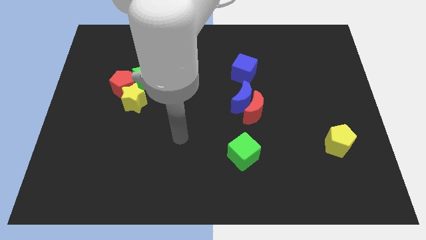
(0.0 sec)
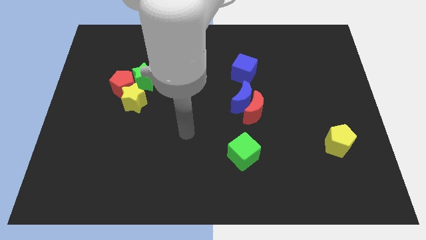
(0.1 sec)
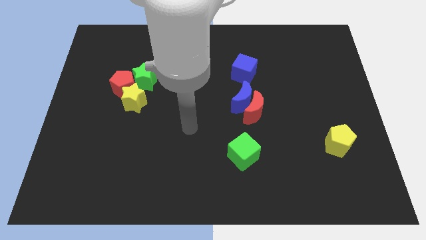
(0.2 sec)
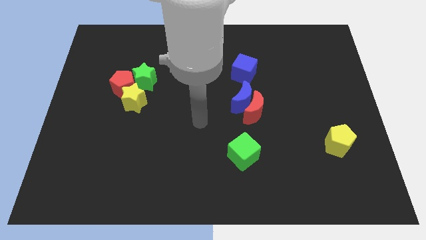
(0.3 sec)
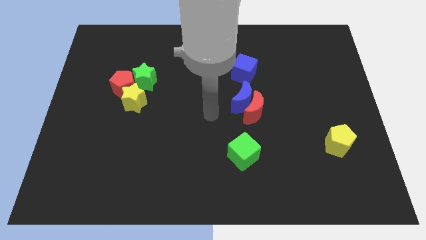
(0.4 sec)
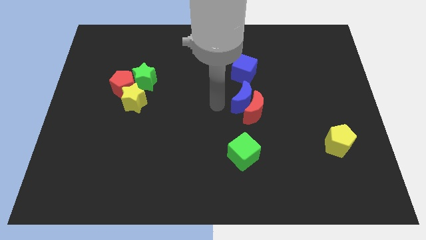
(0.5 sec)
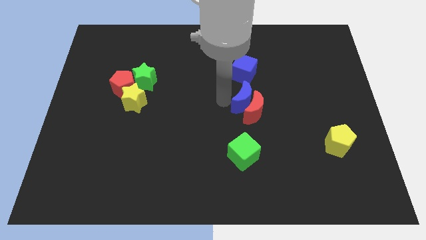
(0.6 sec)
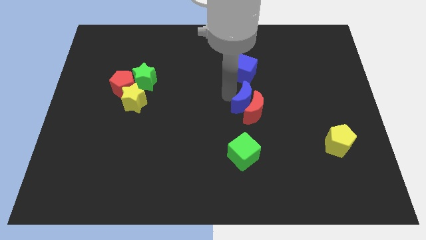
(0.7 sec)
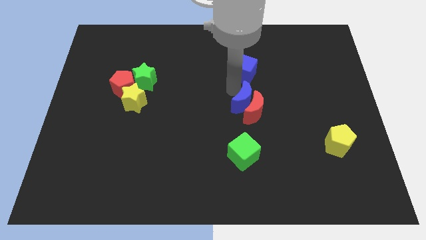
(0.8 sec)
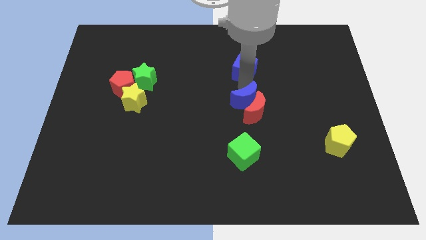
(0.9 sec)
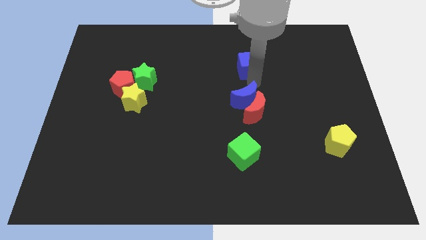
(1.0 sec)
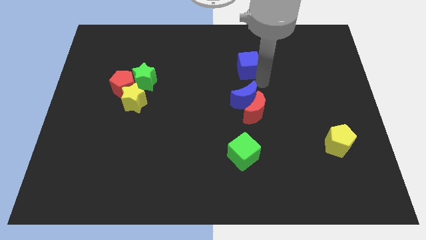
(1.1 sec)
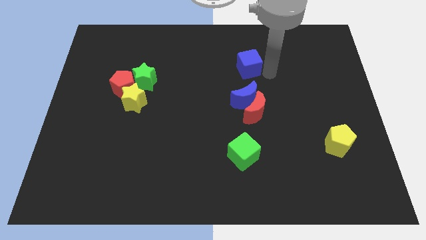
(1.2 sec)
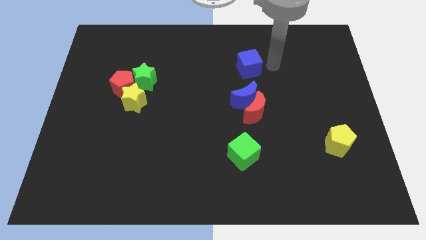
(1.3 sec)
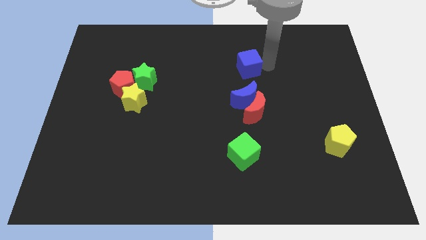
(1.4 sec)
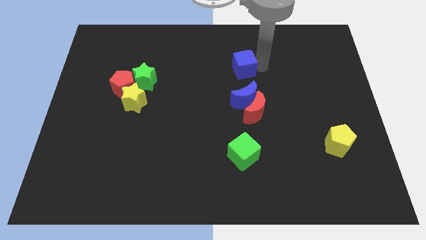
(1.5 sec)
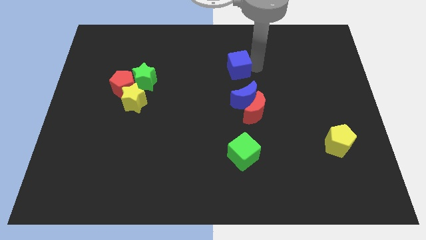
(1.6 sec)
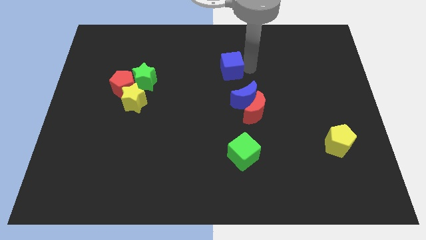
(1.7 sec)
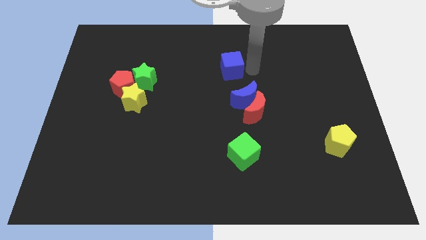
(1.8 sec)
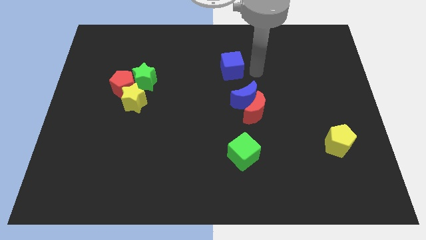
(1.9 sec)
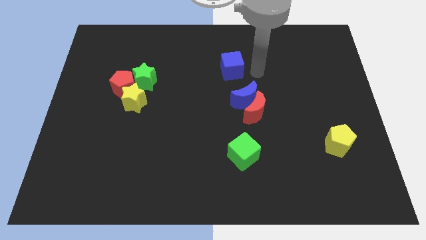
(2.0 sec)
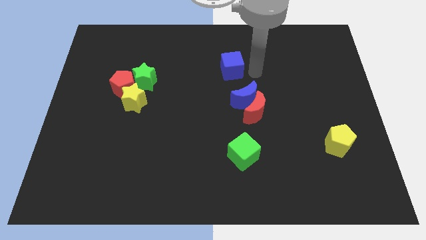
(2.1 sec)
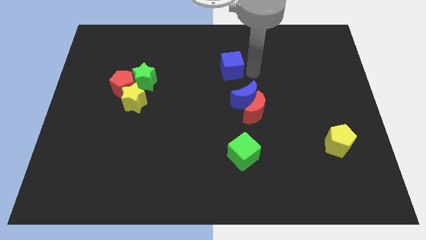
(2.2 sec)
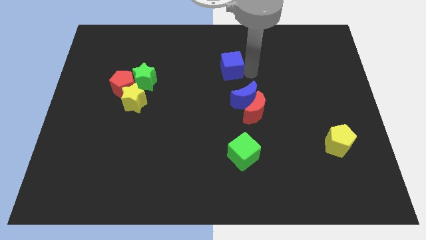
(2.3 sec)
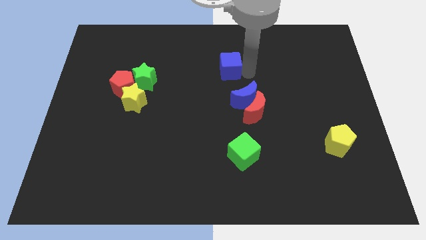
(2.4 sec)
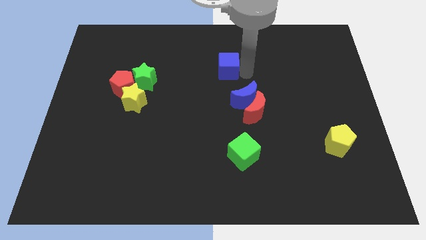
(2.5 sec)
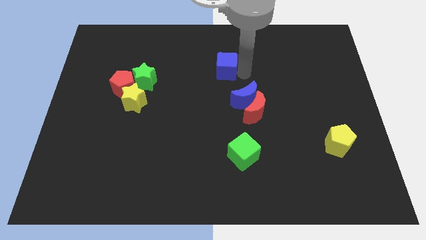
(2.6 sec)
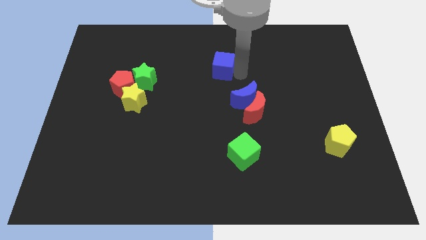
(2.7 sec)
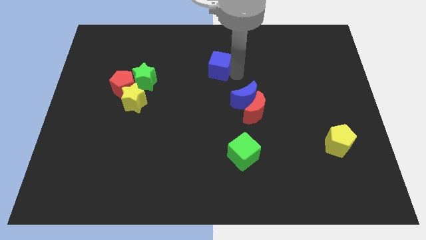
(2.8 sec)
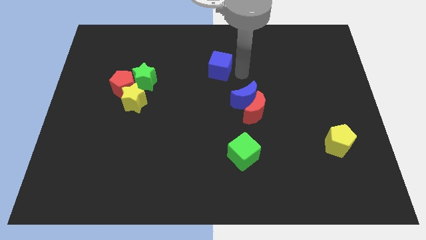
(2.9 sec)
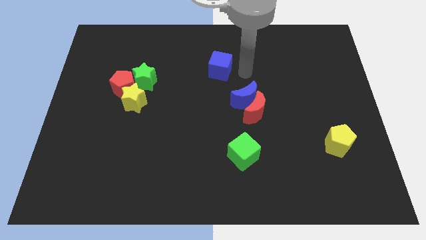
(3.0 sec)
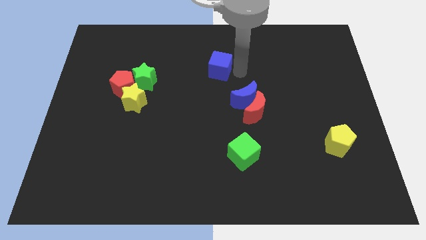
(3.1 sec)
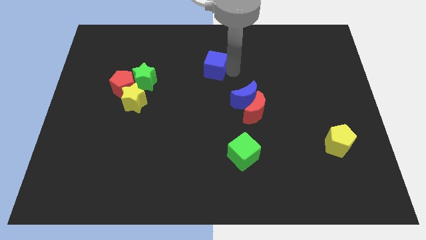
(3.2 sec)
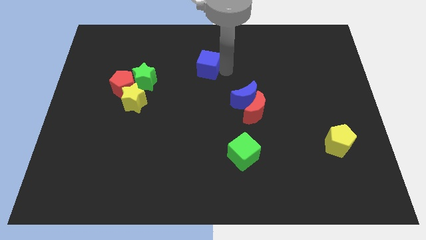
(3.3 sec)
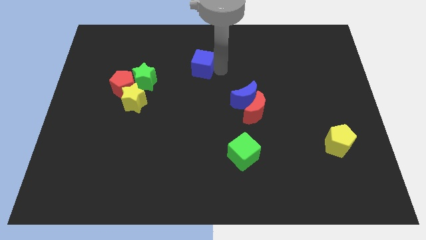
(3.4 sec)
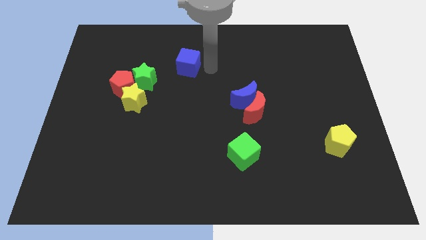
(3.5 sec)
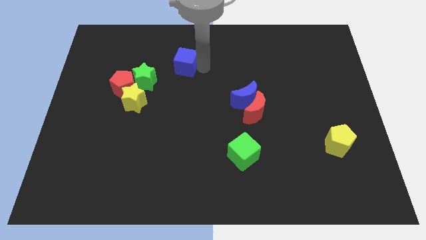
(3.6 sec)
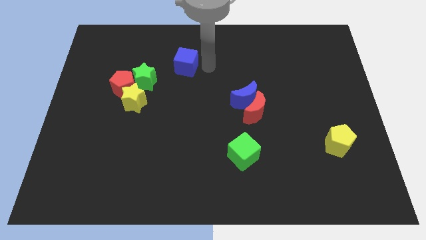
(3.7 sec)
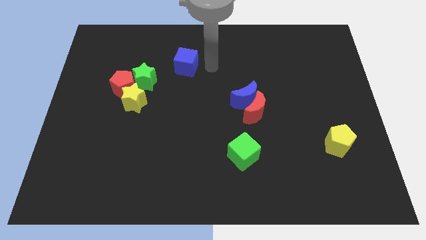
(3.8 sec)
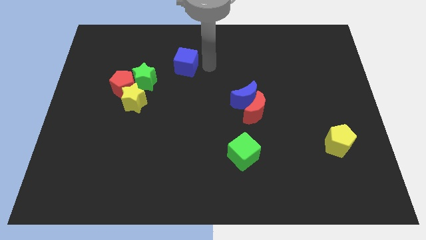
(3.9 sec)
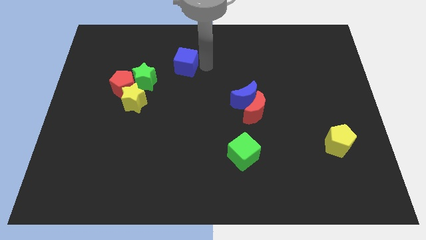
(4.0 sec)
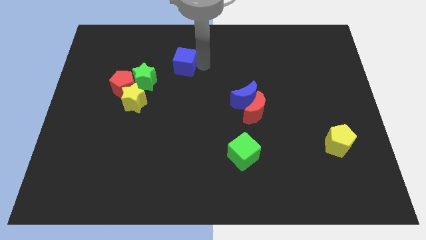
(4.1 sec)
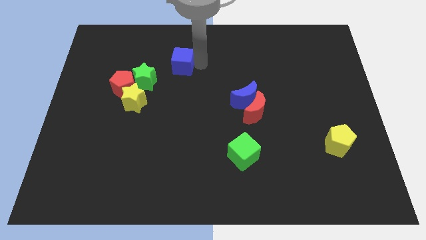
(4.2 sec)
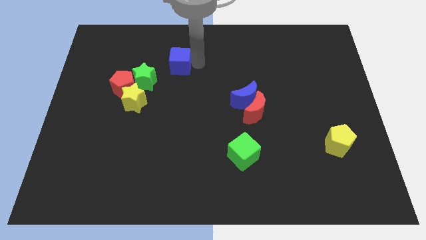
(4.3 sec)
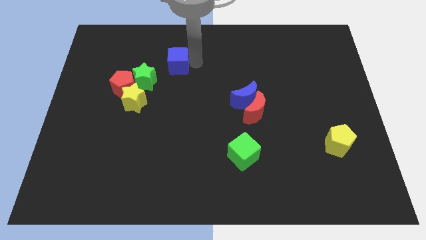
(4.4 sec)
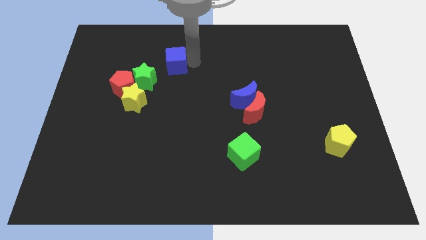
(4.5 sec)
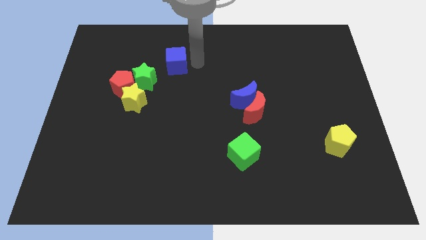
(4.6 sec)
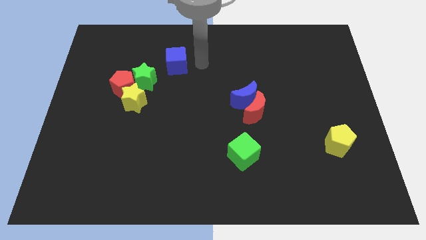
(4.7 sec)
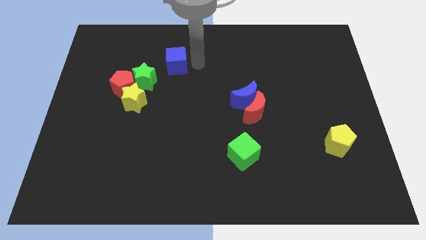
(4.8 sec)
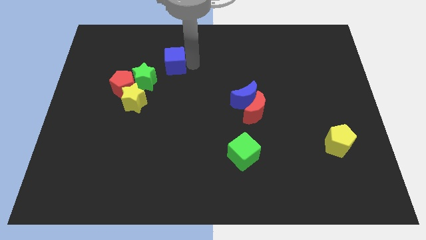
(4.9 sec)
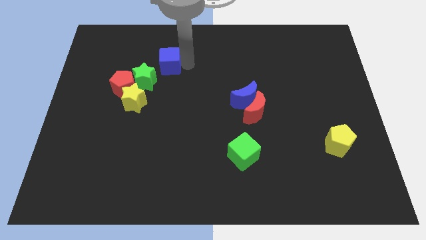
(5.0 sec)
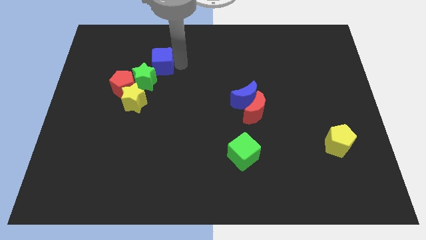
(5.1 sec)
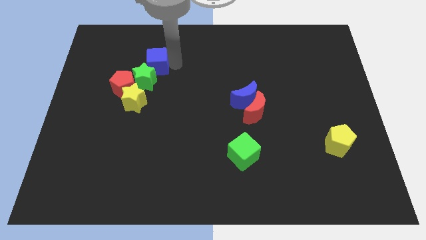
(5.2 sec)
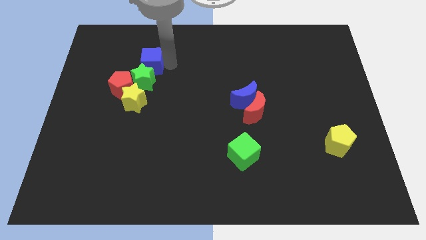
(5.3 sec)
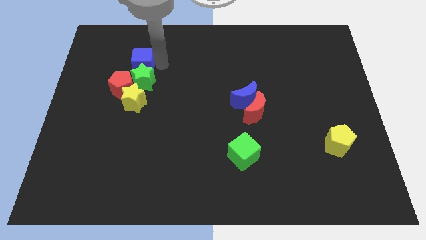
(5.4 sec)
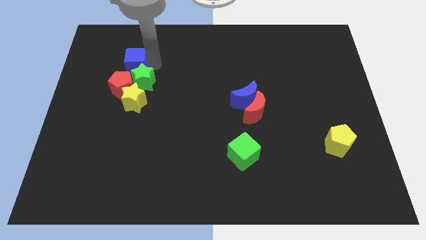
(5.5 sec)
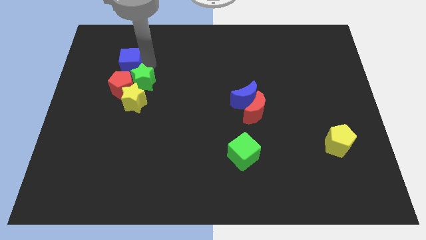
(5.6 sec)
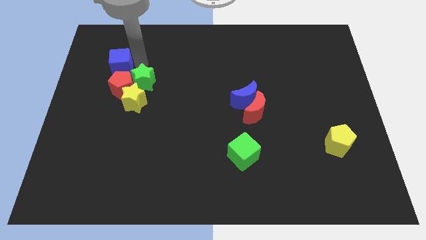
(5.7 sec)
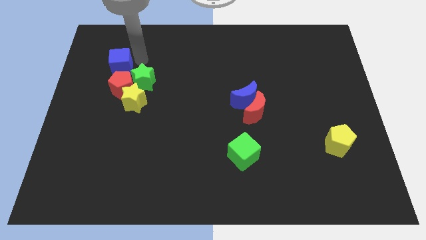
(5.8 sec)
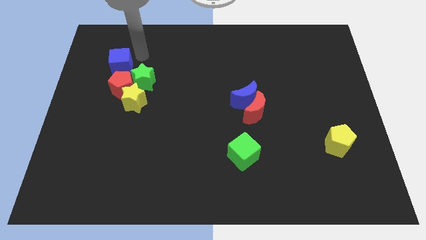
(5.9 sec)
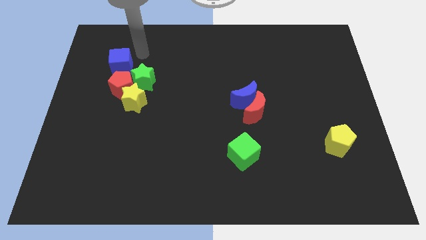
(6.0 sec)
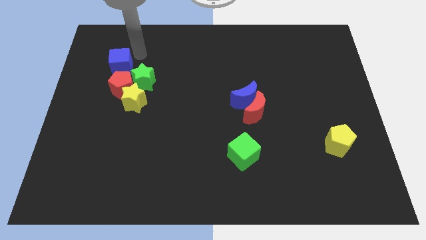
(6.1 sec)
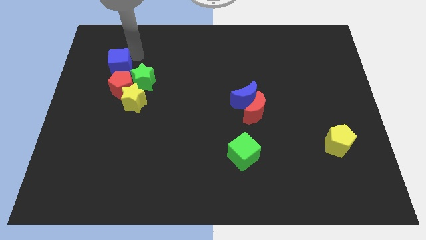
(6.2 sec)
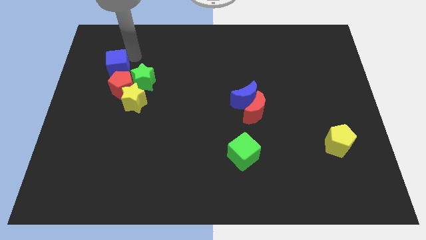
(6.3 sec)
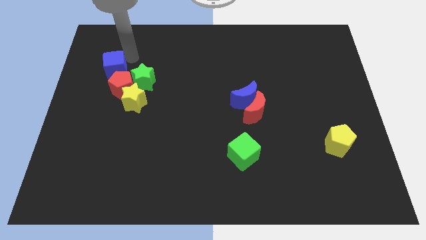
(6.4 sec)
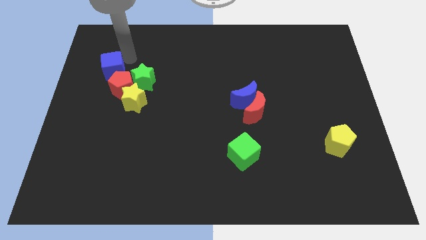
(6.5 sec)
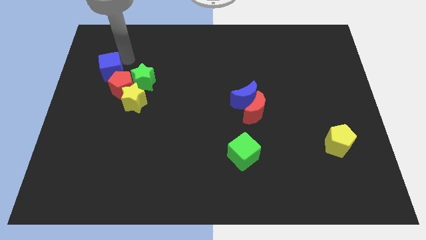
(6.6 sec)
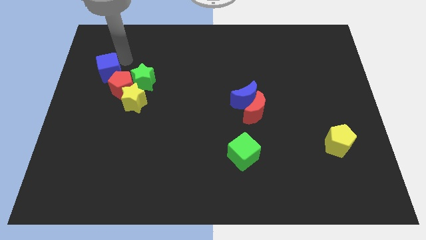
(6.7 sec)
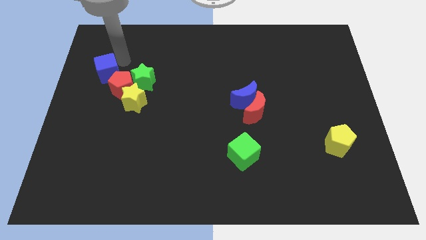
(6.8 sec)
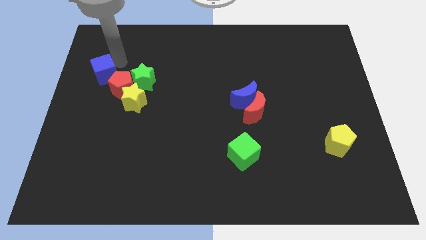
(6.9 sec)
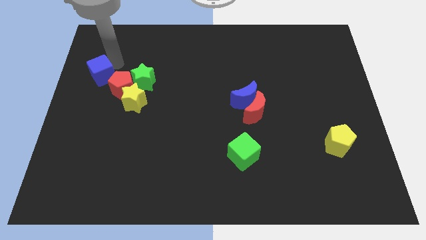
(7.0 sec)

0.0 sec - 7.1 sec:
put the blue cube to the left side of the board
